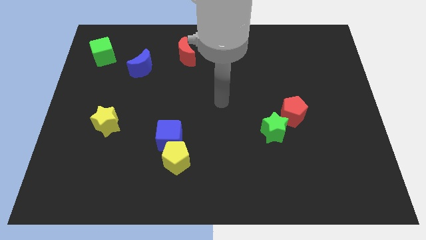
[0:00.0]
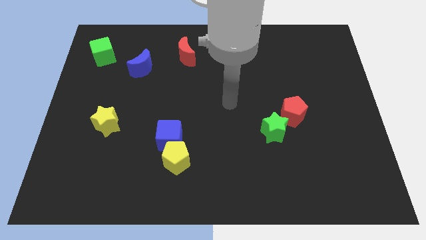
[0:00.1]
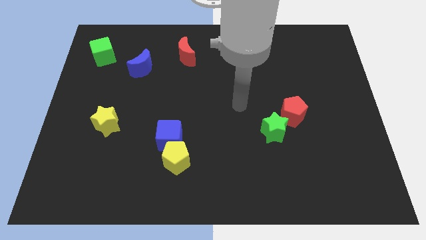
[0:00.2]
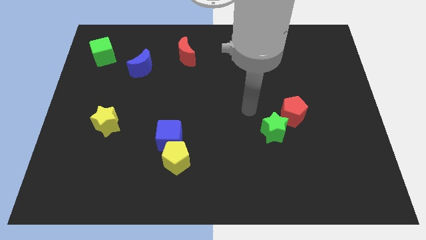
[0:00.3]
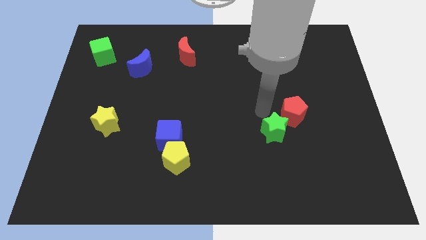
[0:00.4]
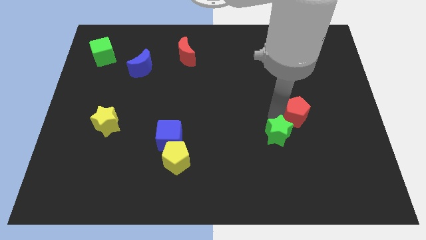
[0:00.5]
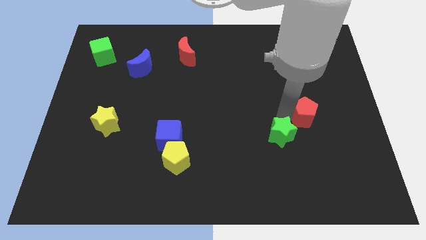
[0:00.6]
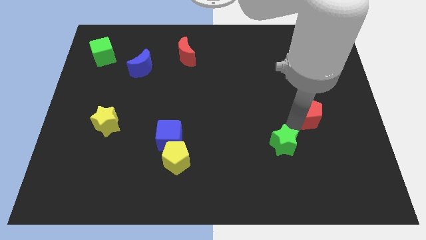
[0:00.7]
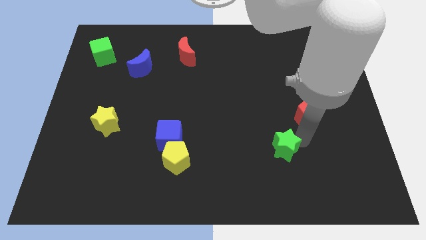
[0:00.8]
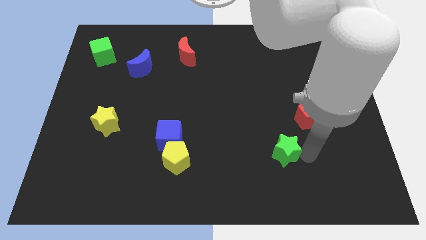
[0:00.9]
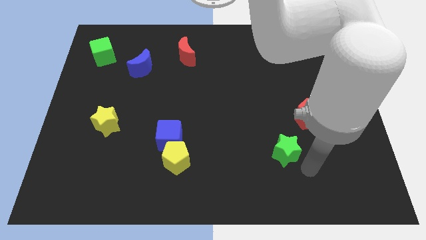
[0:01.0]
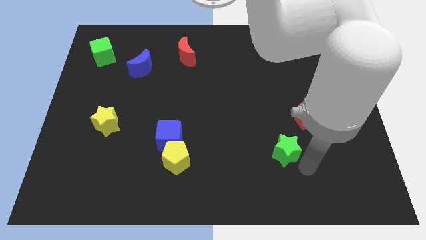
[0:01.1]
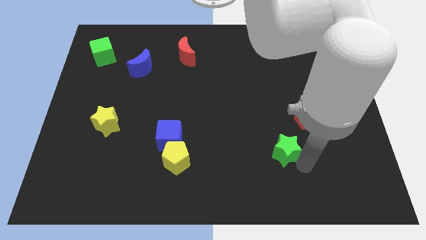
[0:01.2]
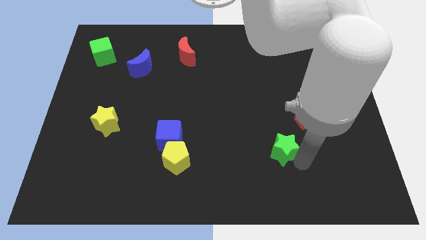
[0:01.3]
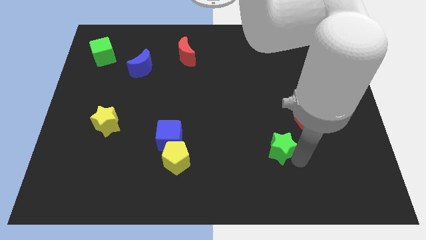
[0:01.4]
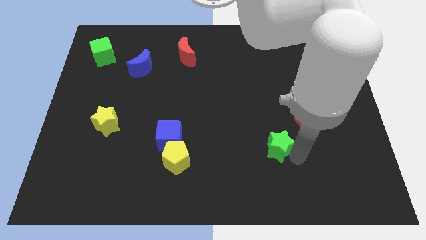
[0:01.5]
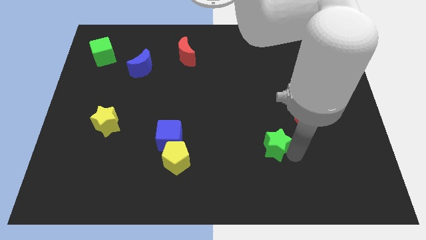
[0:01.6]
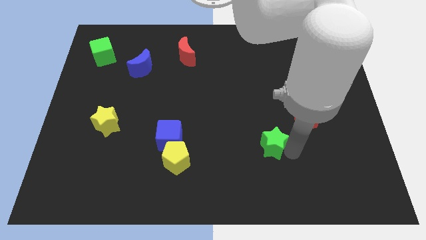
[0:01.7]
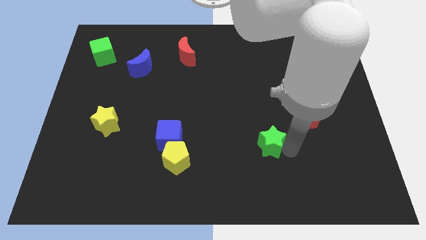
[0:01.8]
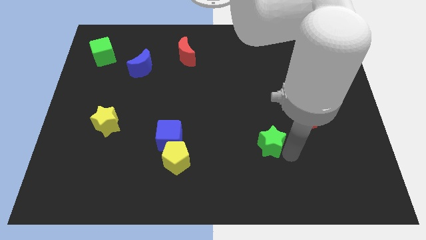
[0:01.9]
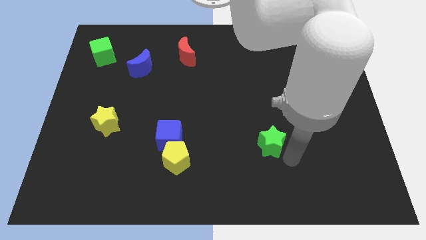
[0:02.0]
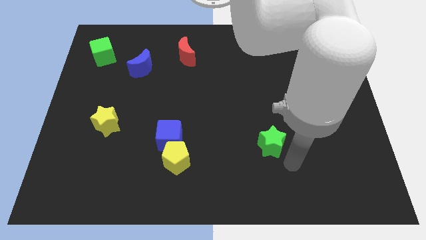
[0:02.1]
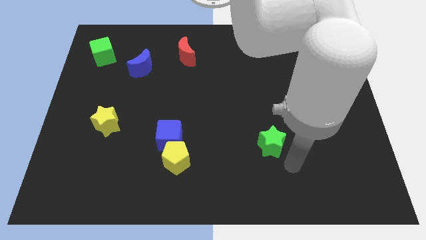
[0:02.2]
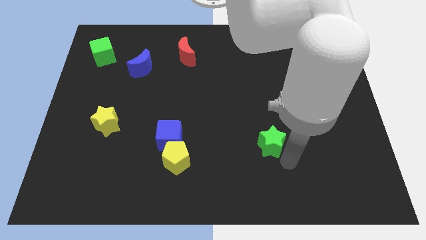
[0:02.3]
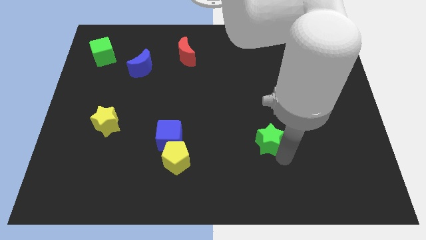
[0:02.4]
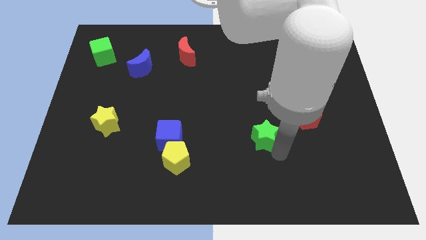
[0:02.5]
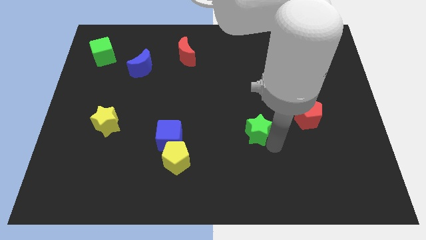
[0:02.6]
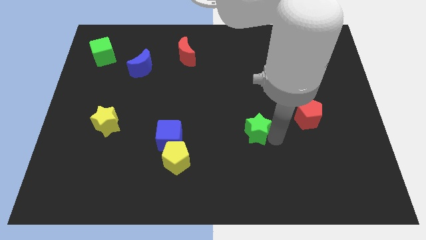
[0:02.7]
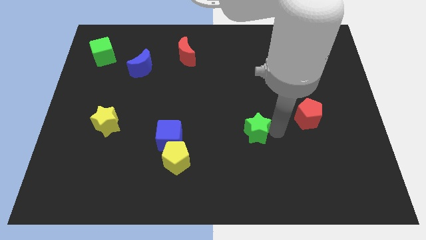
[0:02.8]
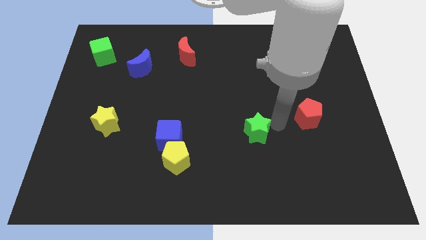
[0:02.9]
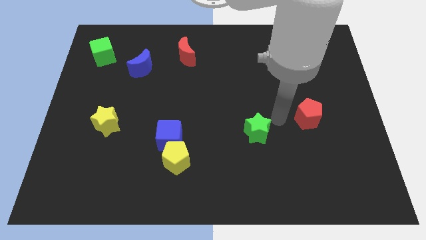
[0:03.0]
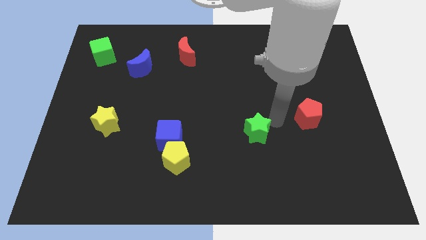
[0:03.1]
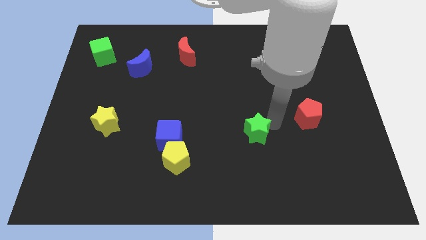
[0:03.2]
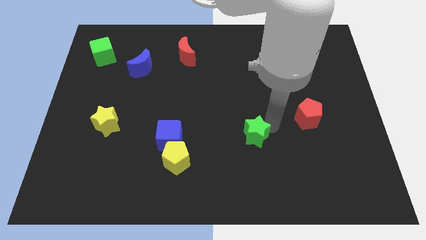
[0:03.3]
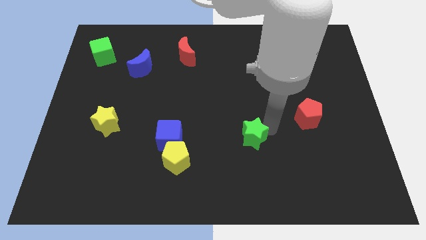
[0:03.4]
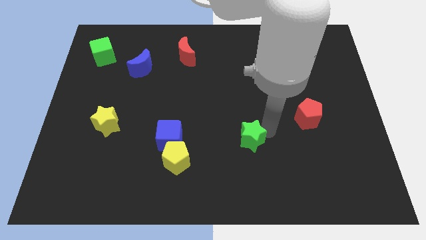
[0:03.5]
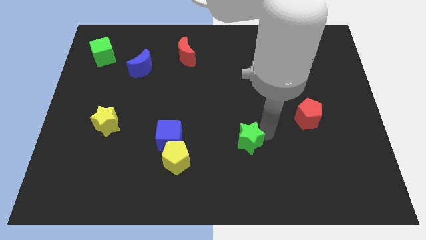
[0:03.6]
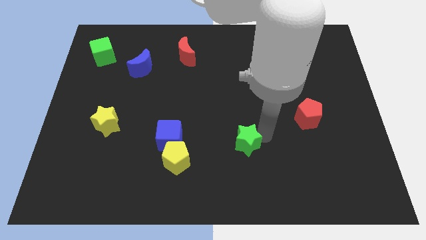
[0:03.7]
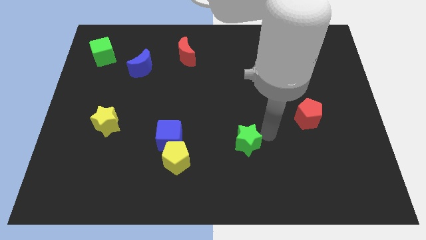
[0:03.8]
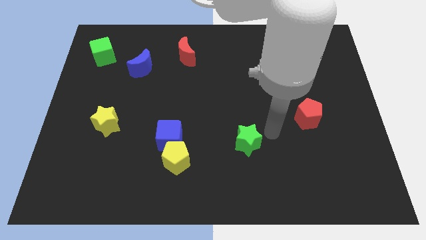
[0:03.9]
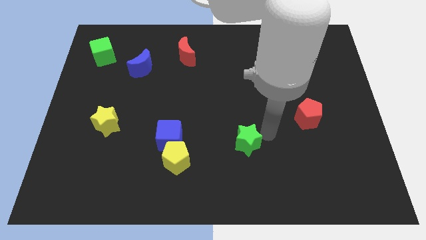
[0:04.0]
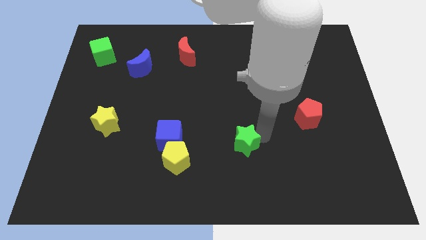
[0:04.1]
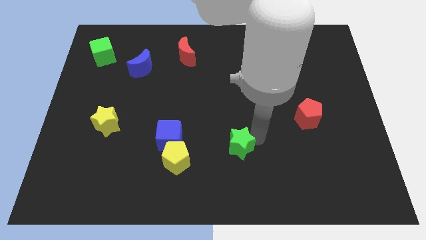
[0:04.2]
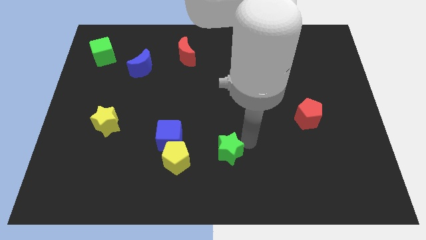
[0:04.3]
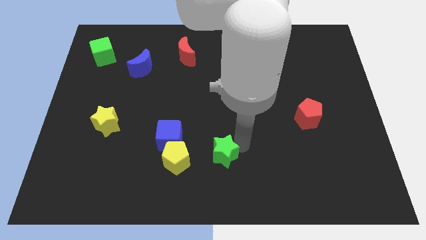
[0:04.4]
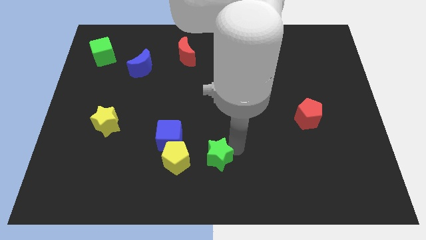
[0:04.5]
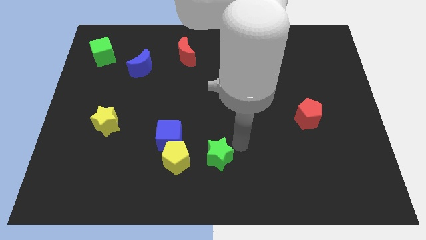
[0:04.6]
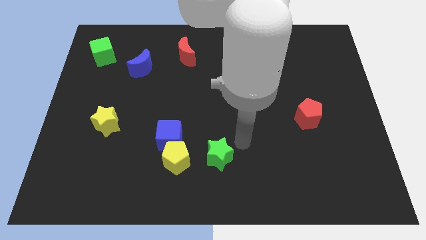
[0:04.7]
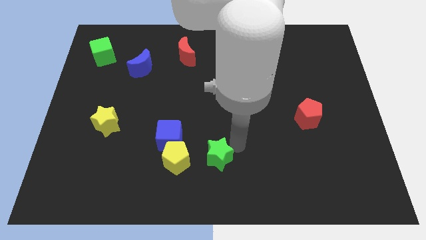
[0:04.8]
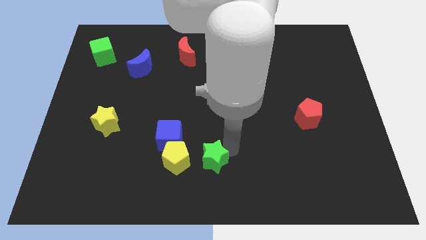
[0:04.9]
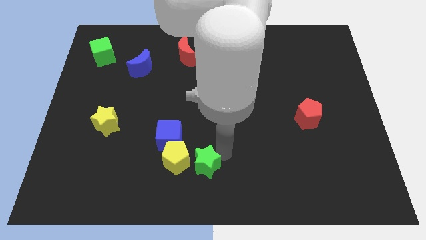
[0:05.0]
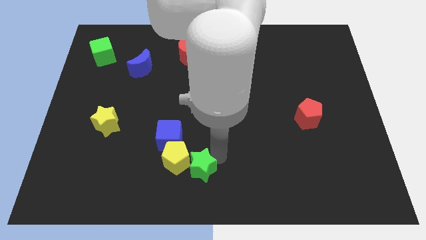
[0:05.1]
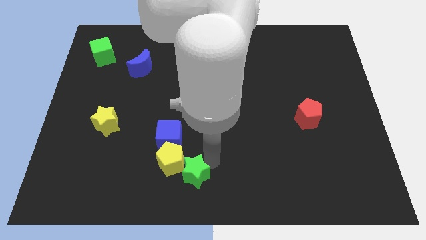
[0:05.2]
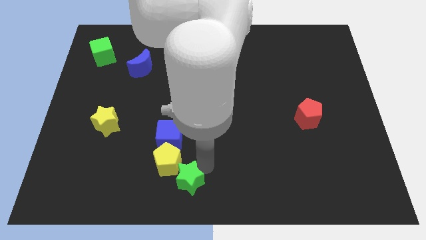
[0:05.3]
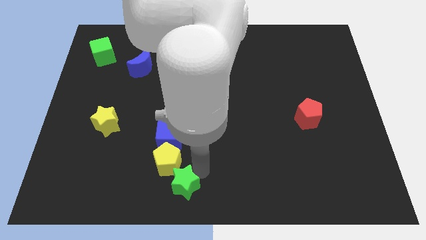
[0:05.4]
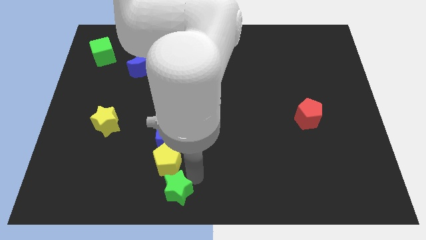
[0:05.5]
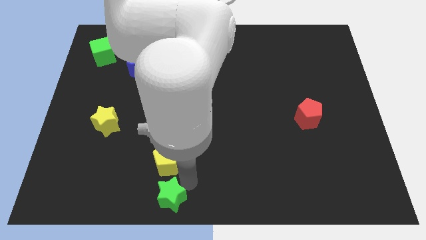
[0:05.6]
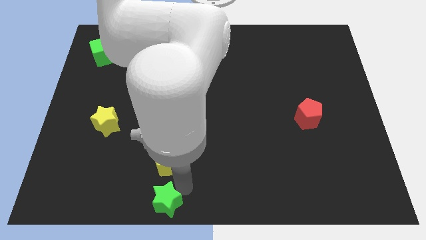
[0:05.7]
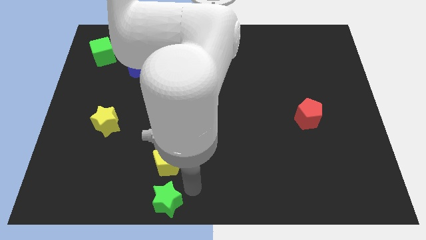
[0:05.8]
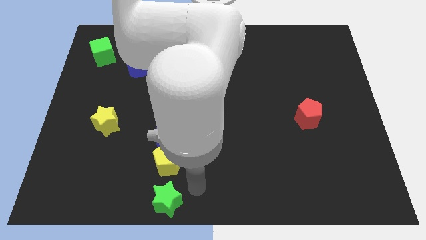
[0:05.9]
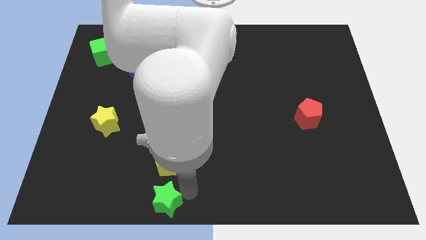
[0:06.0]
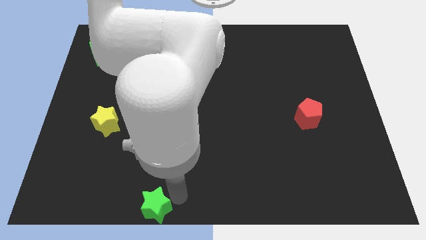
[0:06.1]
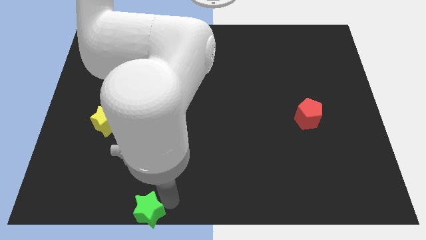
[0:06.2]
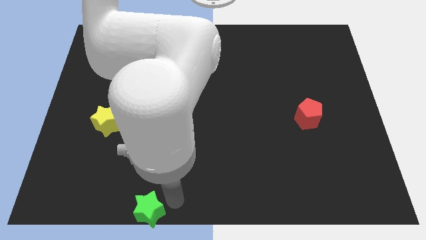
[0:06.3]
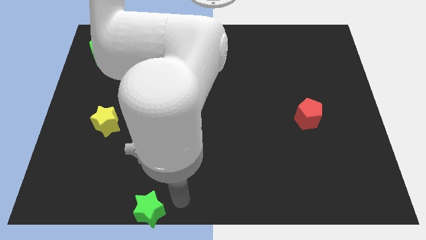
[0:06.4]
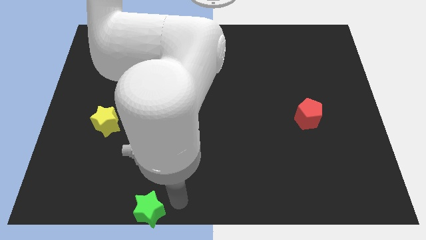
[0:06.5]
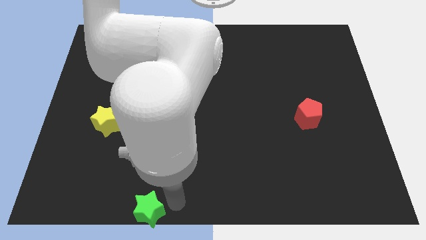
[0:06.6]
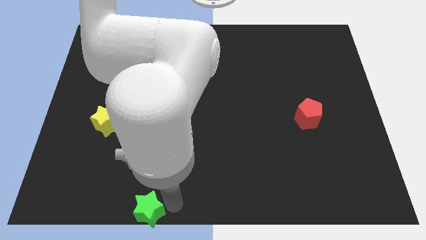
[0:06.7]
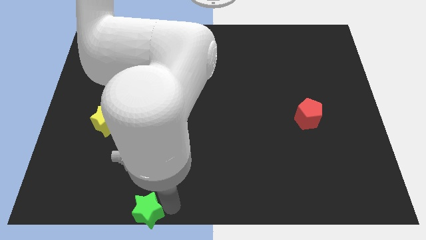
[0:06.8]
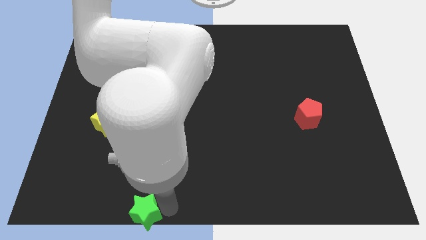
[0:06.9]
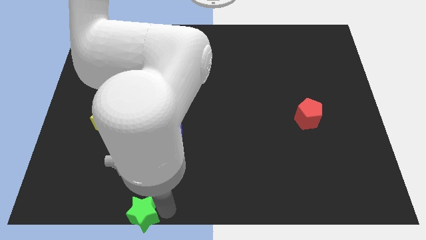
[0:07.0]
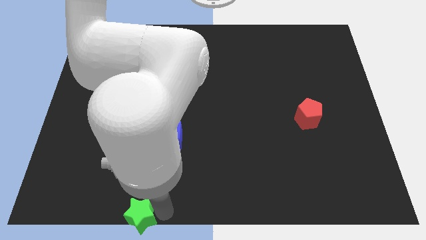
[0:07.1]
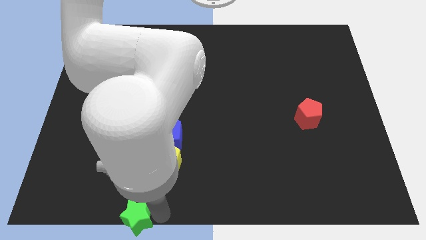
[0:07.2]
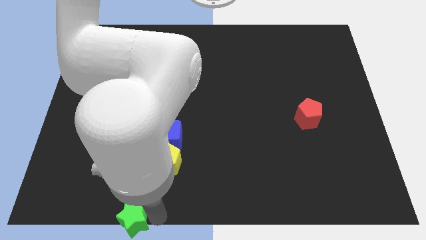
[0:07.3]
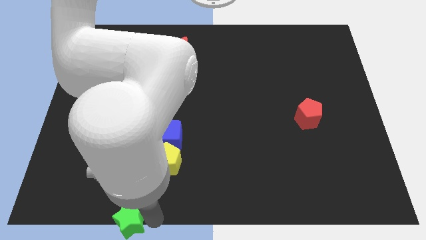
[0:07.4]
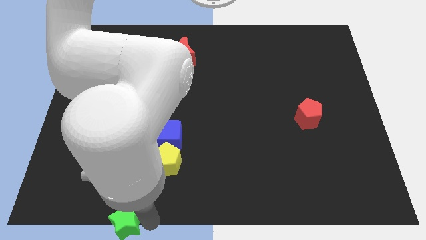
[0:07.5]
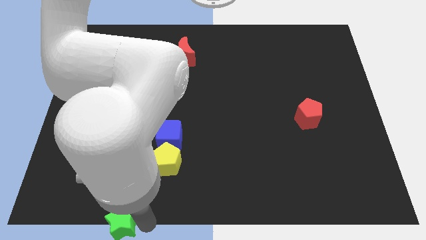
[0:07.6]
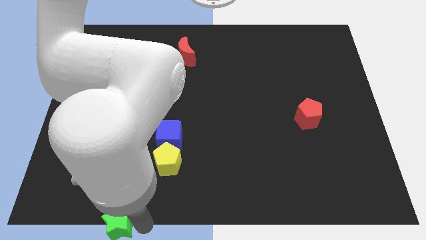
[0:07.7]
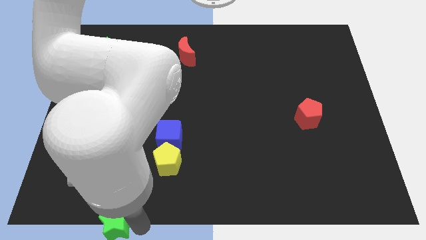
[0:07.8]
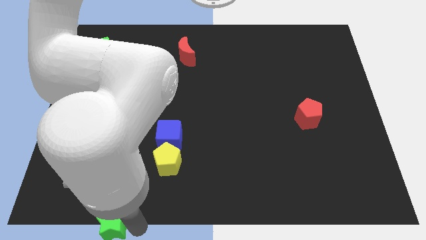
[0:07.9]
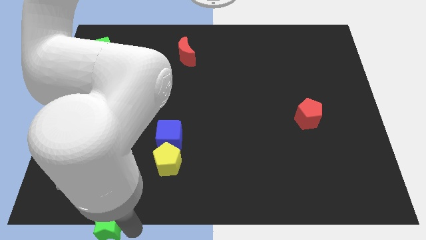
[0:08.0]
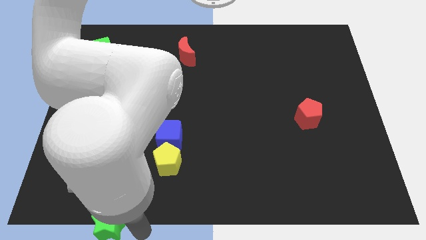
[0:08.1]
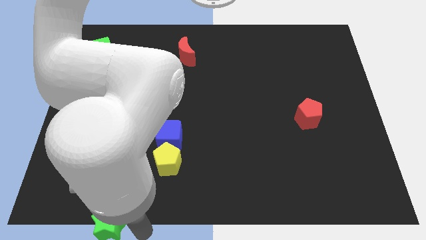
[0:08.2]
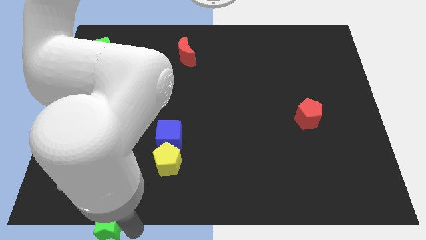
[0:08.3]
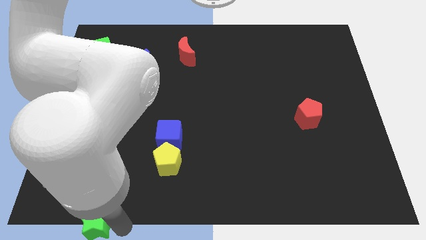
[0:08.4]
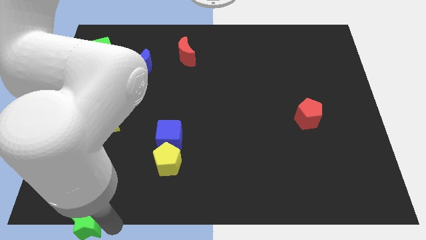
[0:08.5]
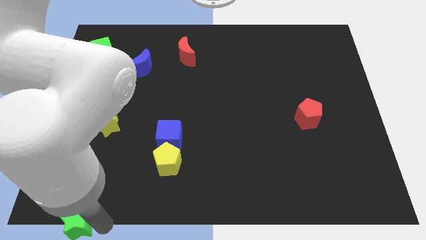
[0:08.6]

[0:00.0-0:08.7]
push the green star to the bottom left
